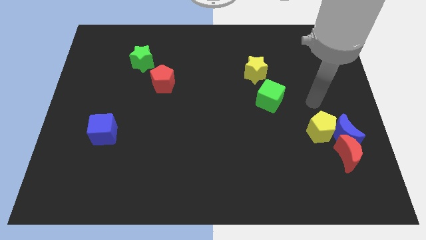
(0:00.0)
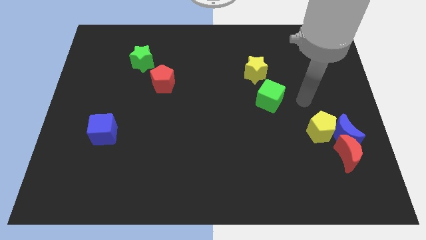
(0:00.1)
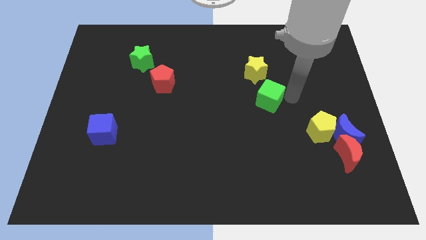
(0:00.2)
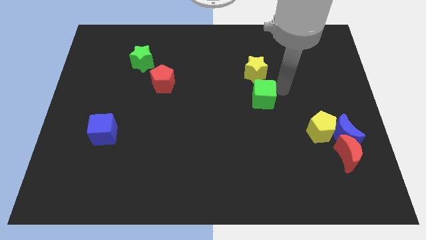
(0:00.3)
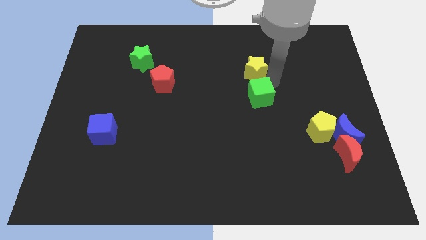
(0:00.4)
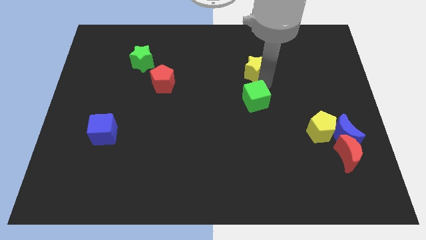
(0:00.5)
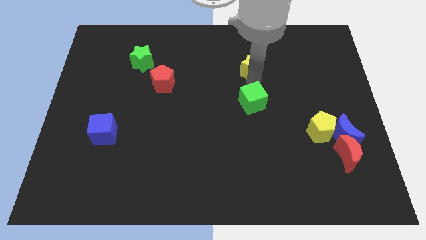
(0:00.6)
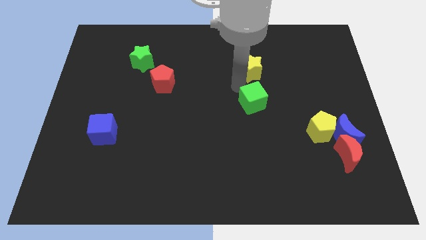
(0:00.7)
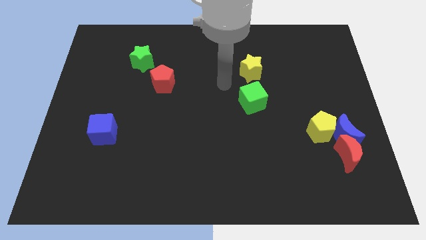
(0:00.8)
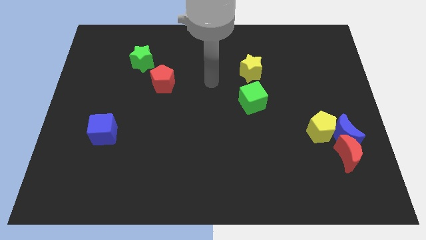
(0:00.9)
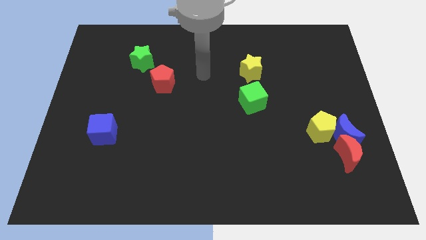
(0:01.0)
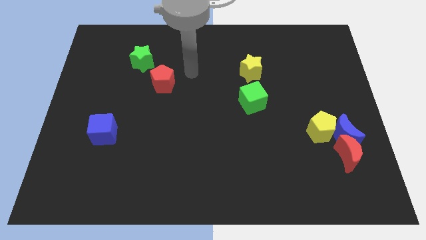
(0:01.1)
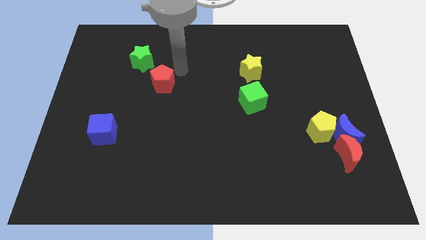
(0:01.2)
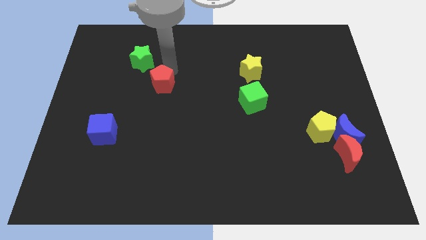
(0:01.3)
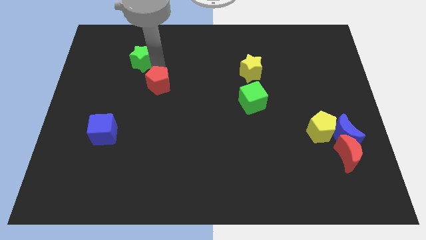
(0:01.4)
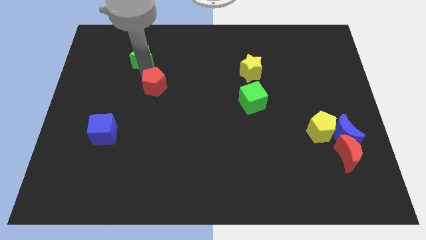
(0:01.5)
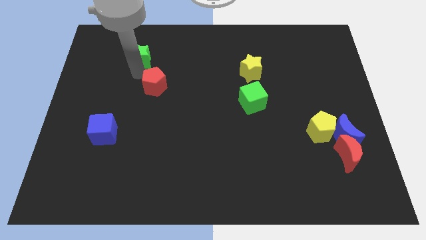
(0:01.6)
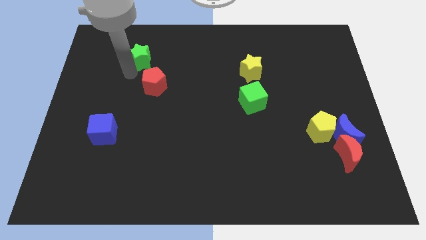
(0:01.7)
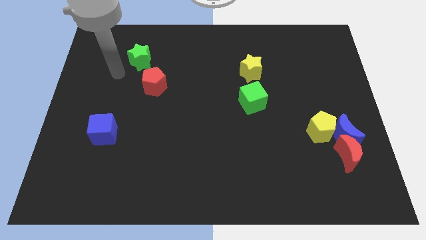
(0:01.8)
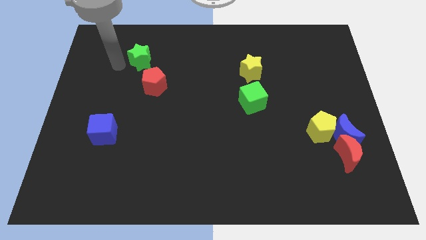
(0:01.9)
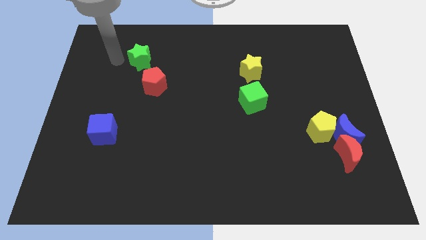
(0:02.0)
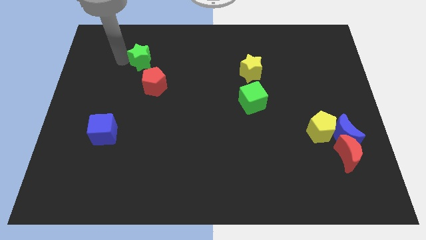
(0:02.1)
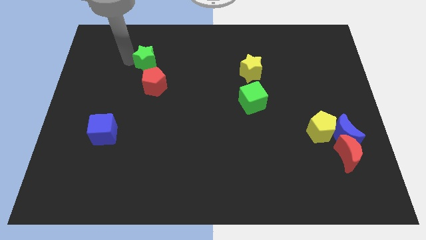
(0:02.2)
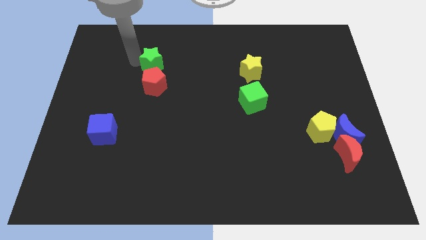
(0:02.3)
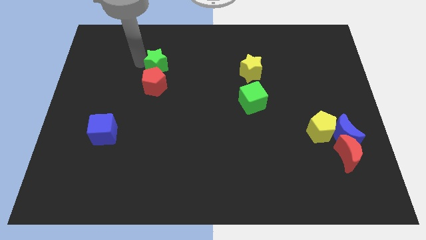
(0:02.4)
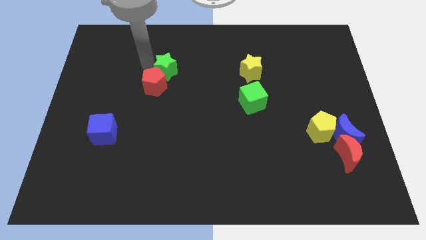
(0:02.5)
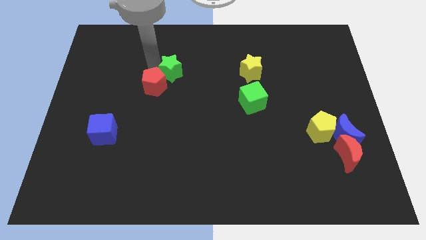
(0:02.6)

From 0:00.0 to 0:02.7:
move the green star right slightly

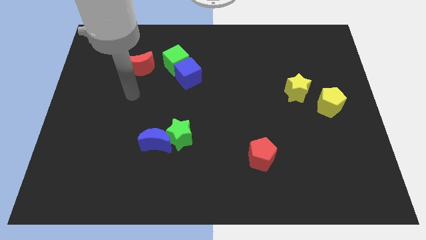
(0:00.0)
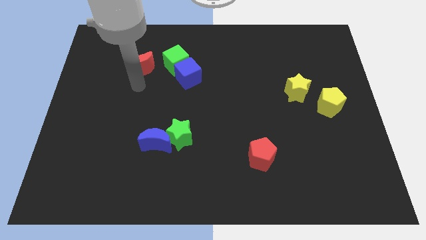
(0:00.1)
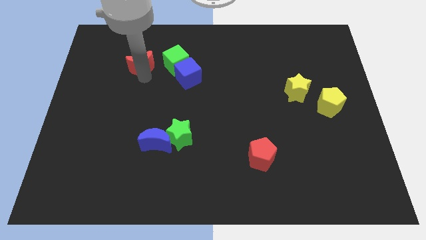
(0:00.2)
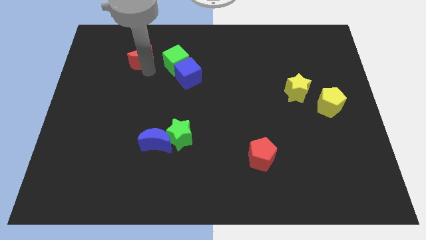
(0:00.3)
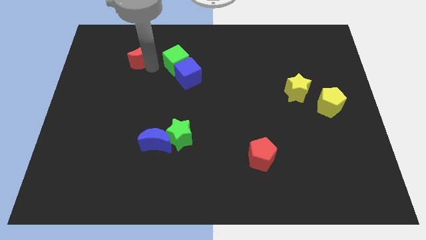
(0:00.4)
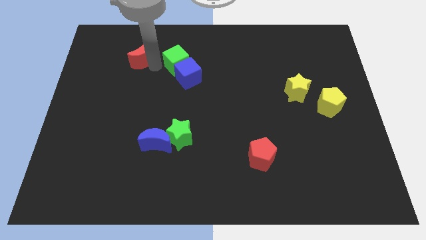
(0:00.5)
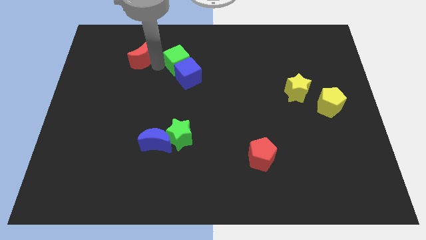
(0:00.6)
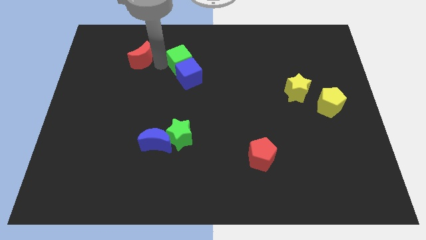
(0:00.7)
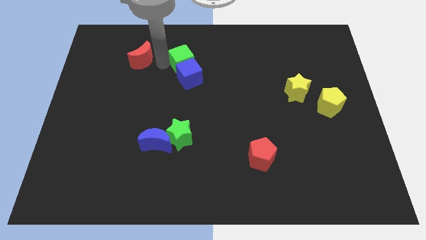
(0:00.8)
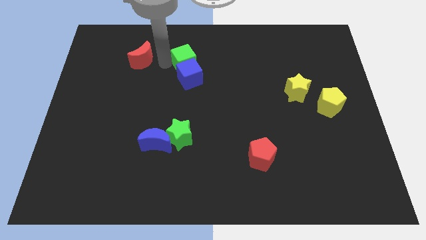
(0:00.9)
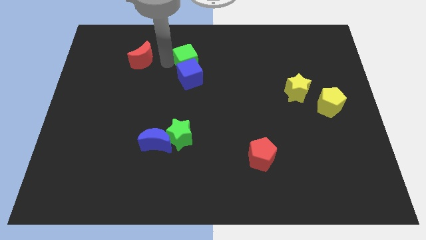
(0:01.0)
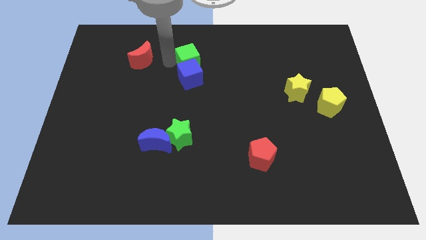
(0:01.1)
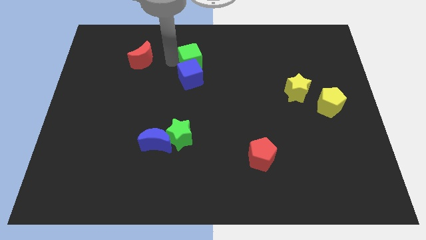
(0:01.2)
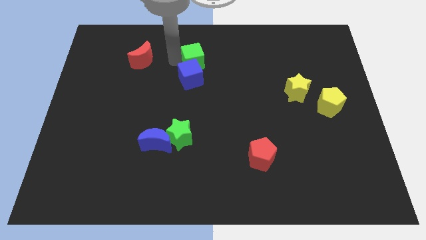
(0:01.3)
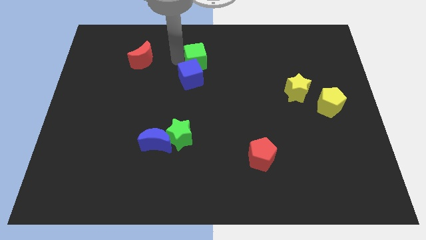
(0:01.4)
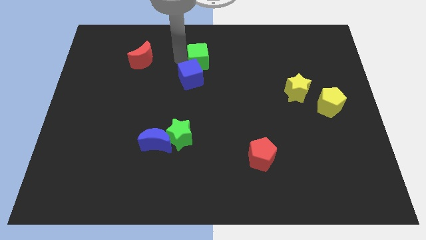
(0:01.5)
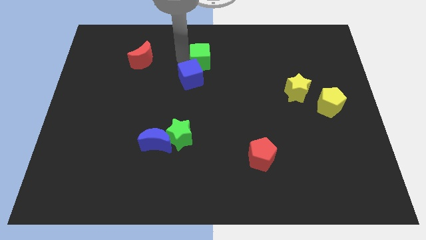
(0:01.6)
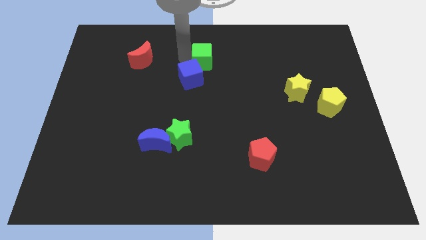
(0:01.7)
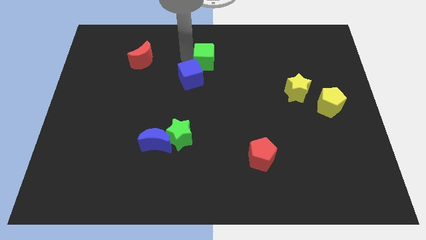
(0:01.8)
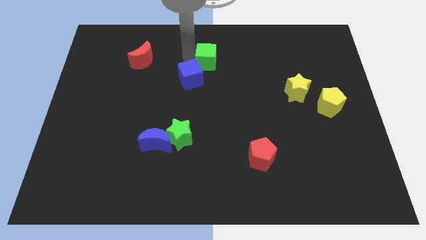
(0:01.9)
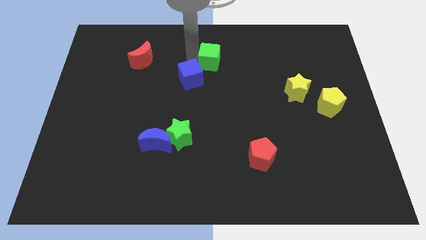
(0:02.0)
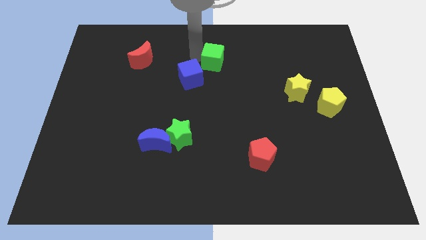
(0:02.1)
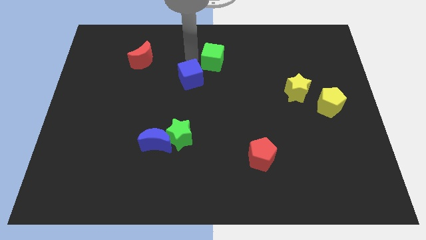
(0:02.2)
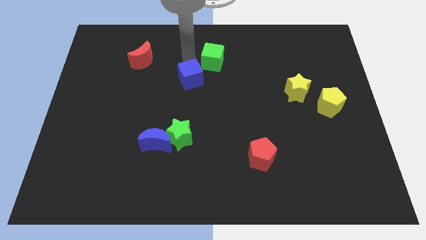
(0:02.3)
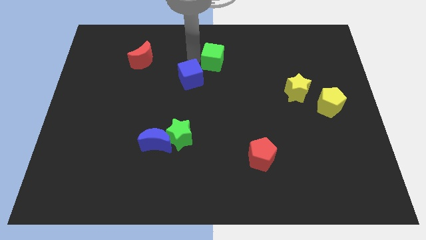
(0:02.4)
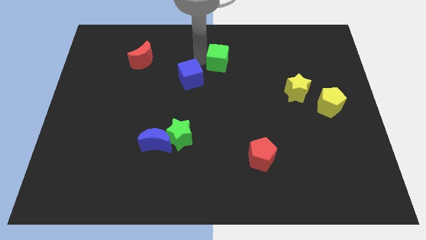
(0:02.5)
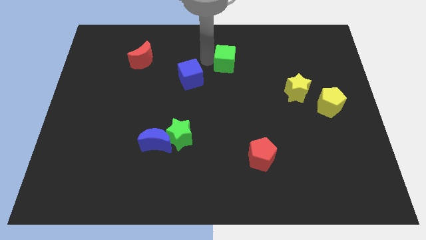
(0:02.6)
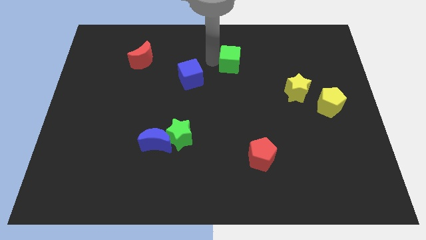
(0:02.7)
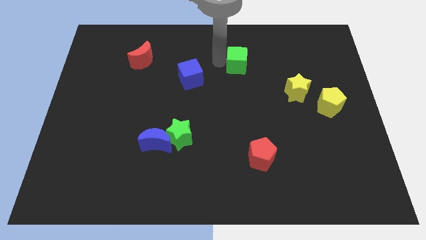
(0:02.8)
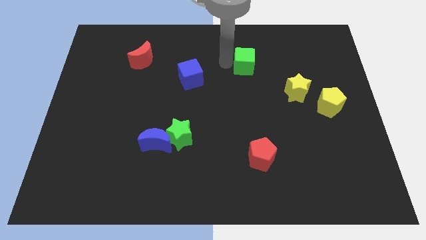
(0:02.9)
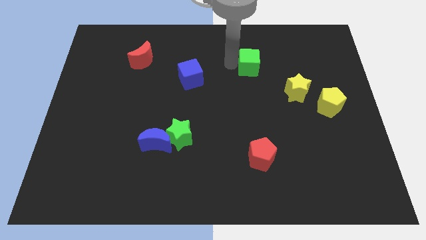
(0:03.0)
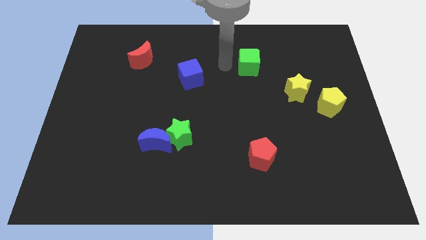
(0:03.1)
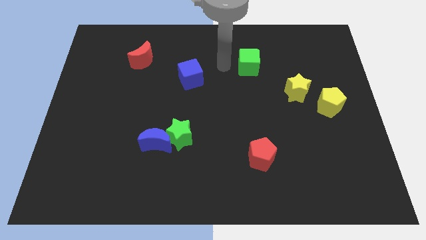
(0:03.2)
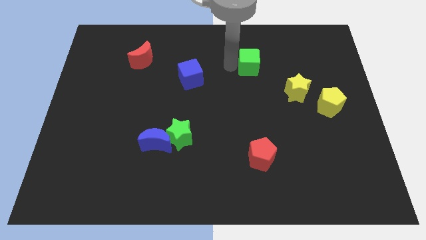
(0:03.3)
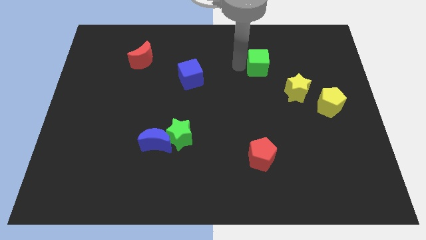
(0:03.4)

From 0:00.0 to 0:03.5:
slide the green cube right

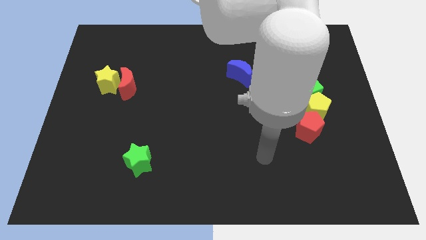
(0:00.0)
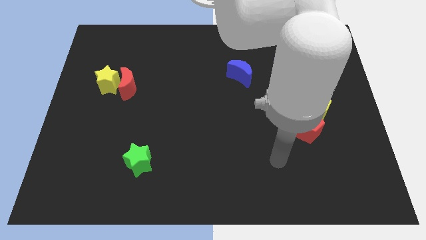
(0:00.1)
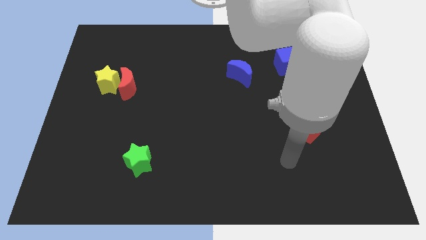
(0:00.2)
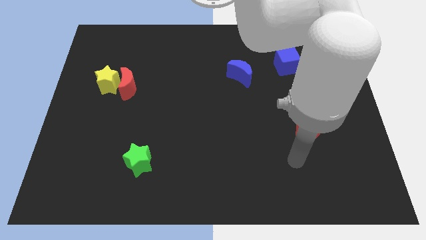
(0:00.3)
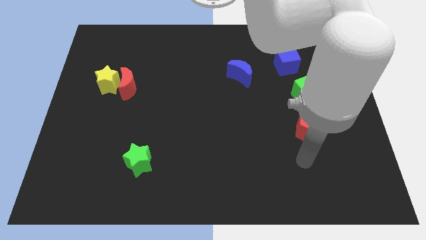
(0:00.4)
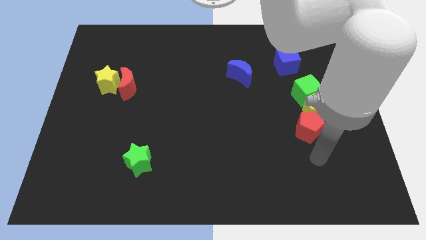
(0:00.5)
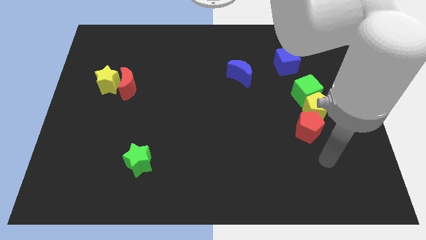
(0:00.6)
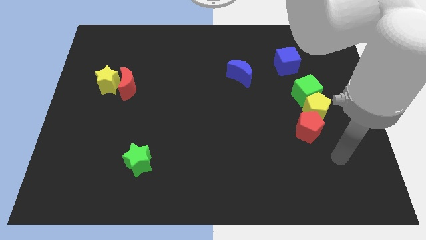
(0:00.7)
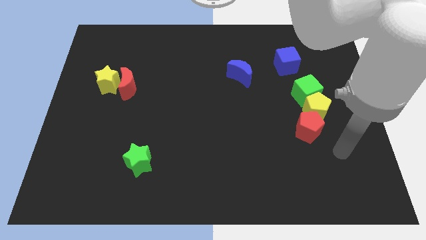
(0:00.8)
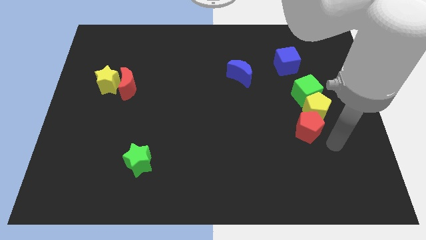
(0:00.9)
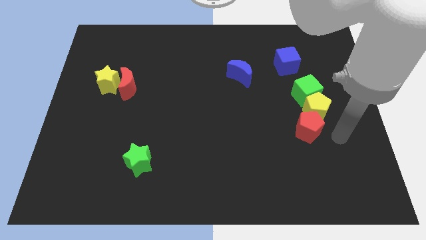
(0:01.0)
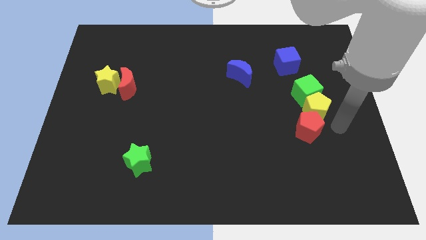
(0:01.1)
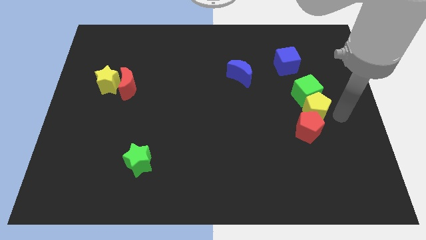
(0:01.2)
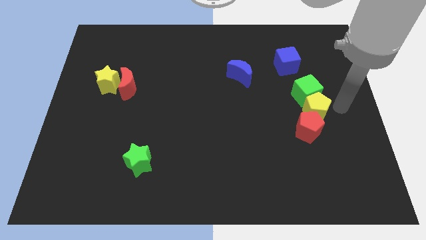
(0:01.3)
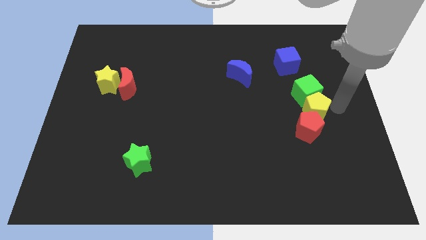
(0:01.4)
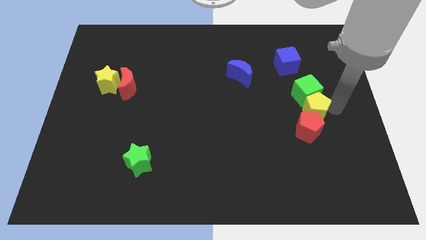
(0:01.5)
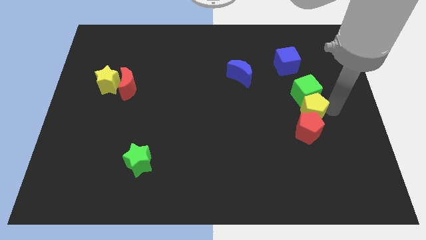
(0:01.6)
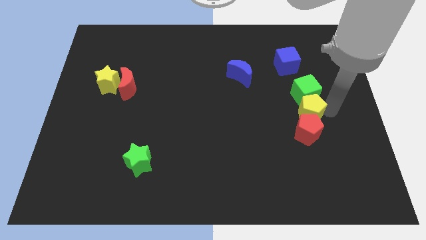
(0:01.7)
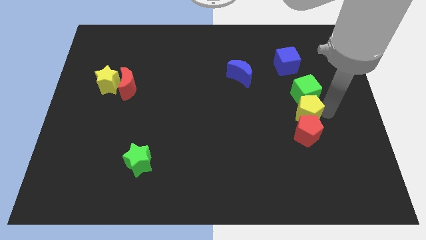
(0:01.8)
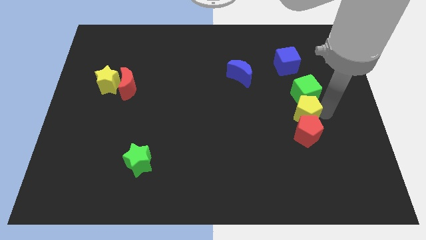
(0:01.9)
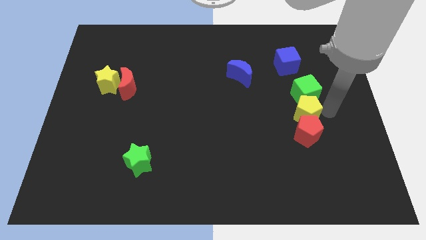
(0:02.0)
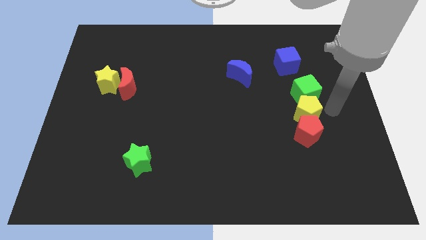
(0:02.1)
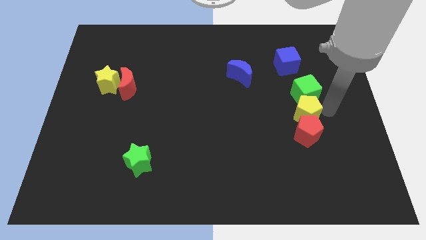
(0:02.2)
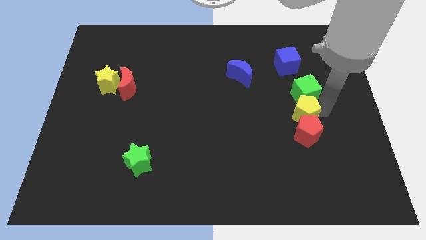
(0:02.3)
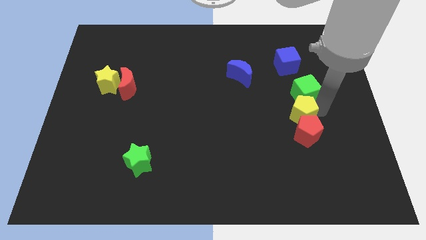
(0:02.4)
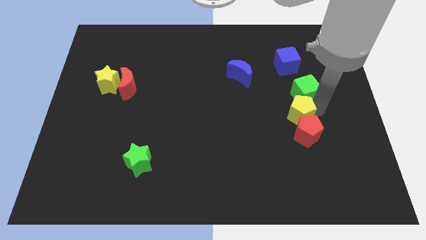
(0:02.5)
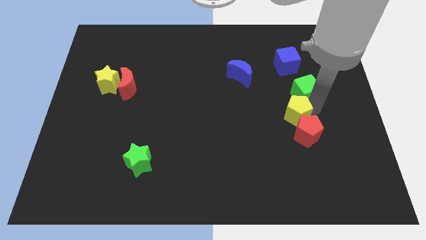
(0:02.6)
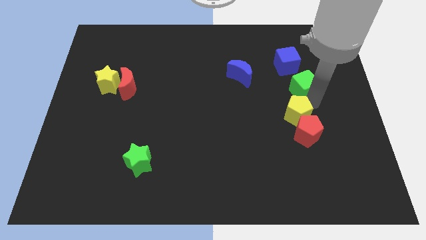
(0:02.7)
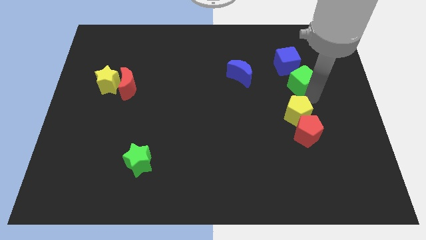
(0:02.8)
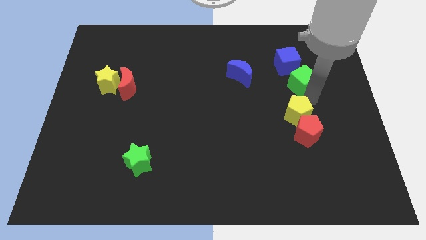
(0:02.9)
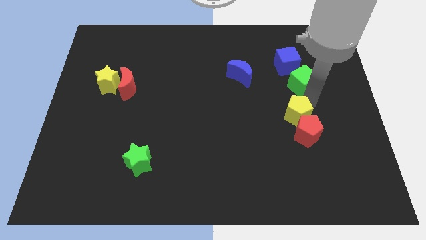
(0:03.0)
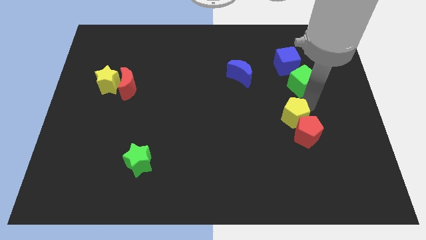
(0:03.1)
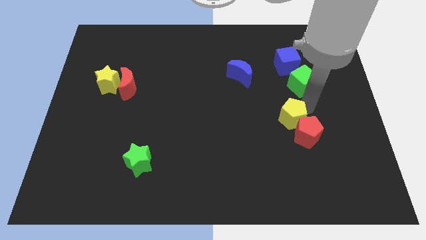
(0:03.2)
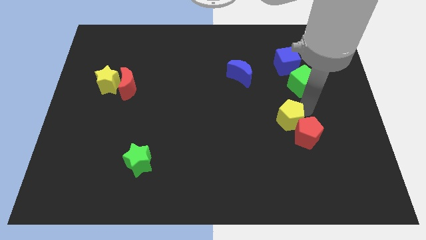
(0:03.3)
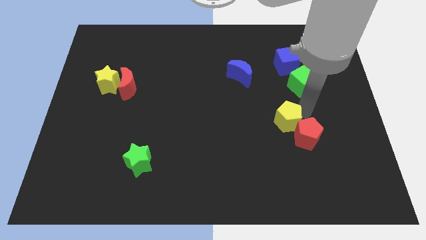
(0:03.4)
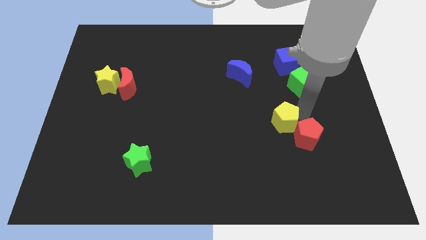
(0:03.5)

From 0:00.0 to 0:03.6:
slightly slide the yellow pentagon down and then to the left
